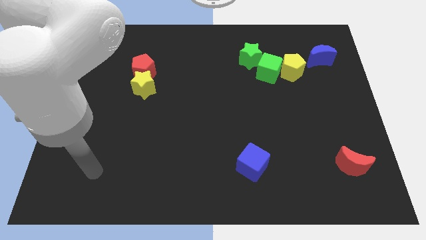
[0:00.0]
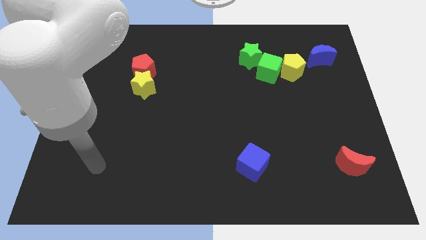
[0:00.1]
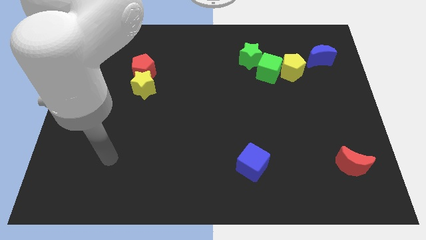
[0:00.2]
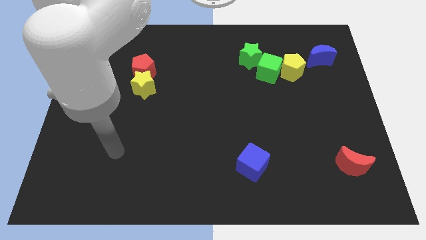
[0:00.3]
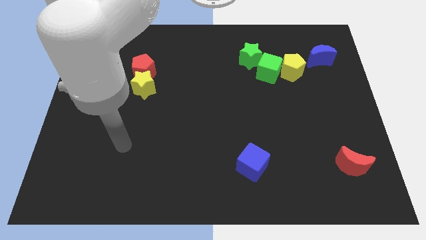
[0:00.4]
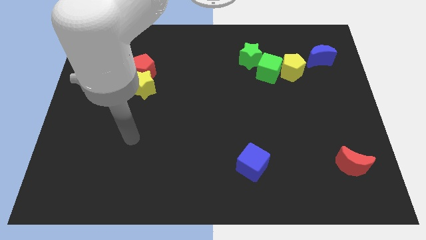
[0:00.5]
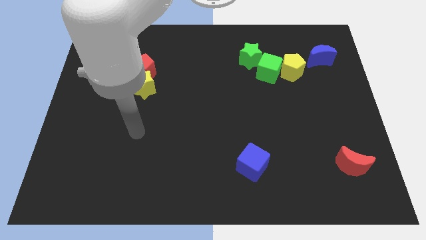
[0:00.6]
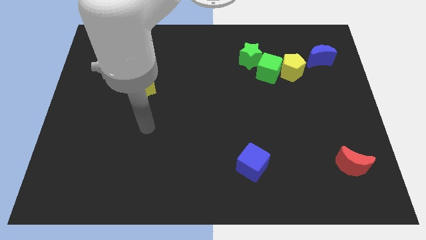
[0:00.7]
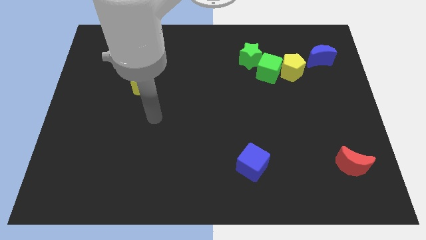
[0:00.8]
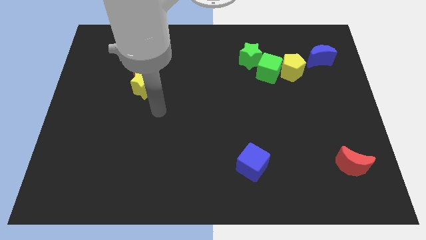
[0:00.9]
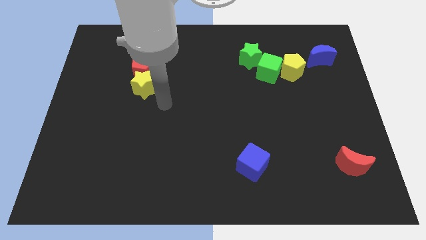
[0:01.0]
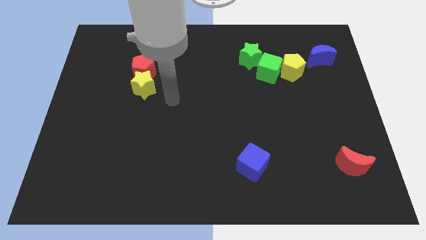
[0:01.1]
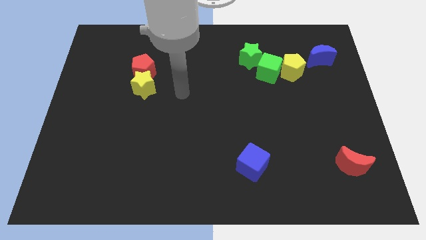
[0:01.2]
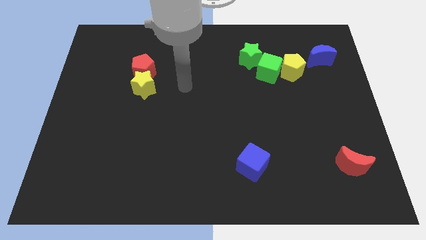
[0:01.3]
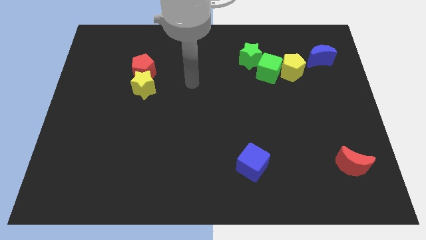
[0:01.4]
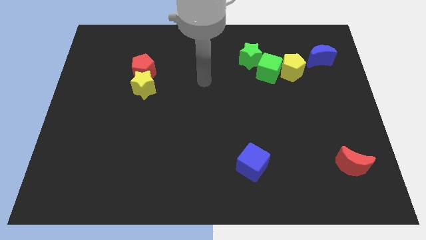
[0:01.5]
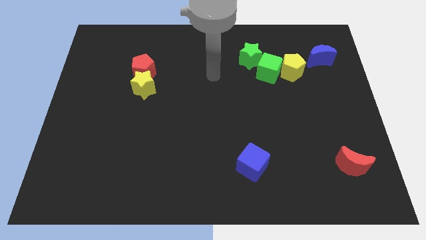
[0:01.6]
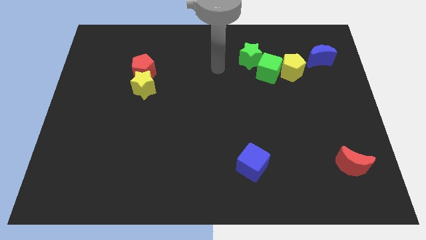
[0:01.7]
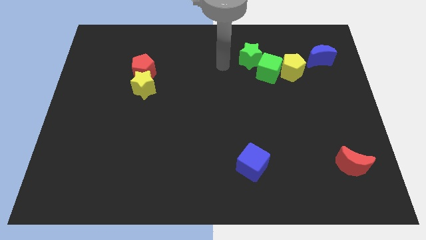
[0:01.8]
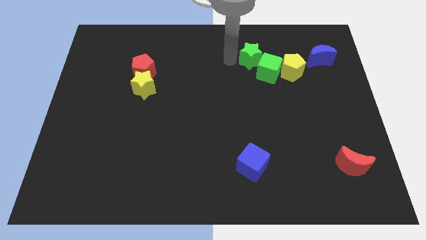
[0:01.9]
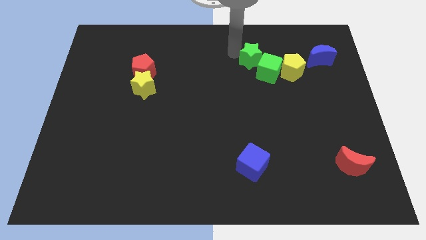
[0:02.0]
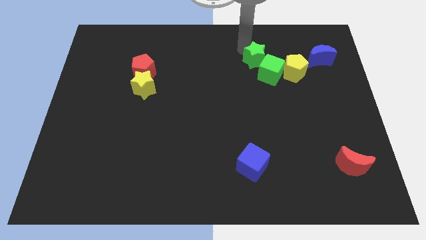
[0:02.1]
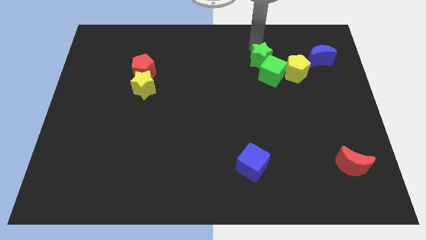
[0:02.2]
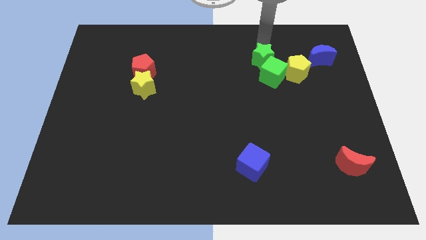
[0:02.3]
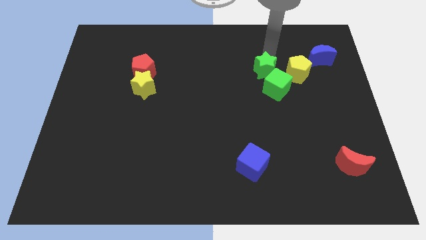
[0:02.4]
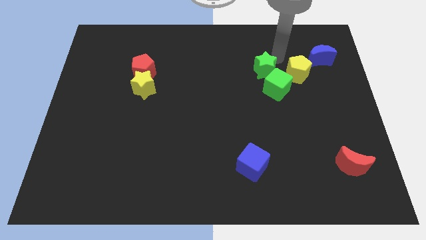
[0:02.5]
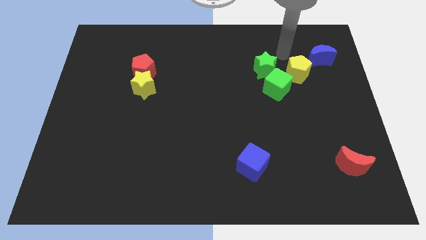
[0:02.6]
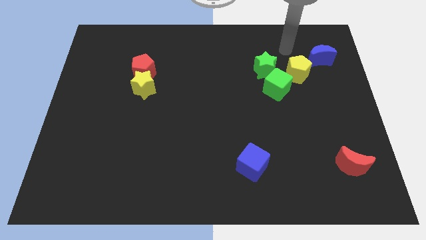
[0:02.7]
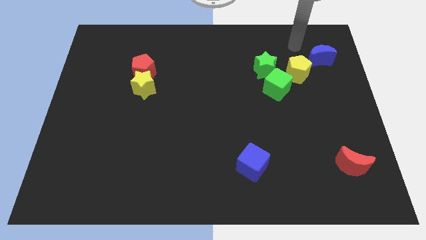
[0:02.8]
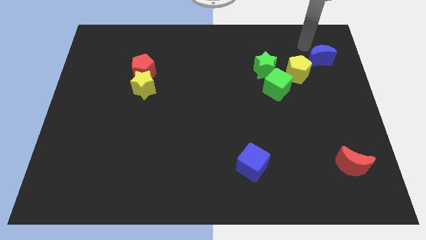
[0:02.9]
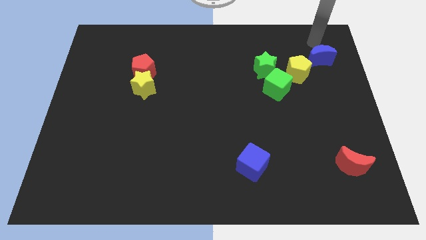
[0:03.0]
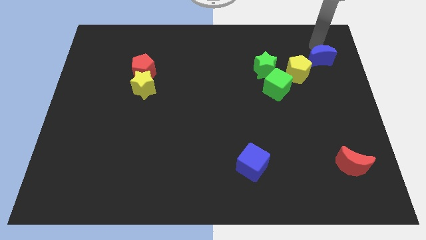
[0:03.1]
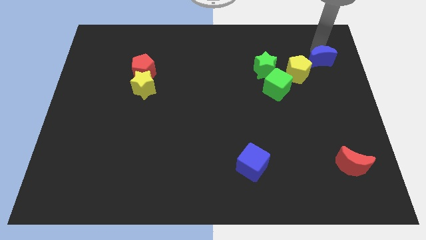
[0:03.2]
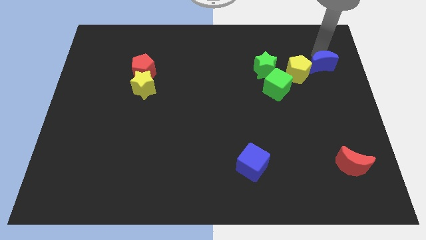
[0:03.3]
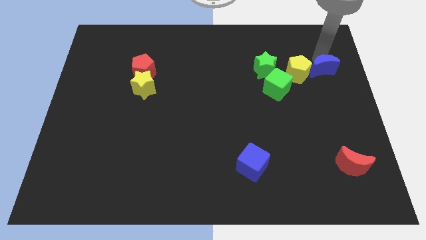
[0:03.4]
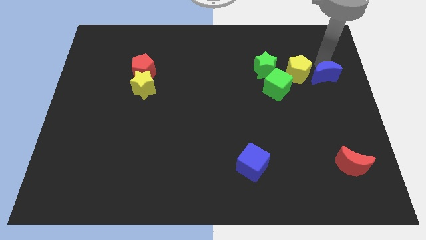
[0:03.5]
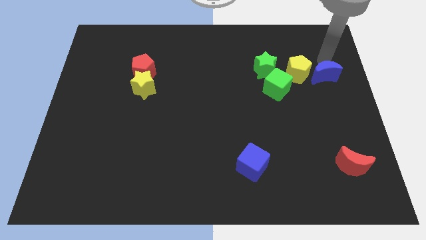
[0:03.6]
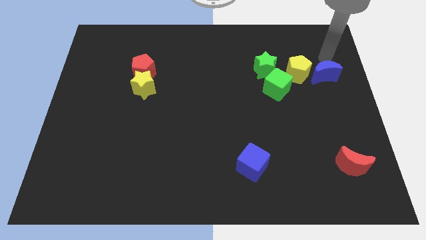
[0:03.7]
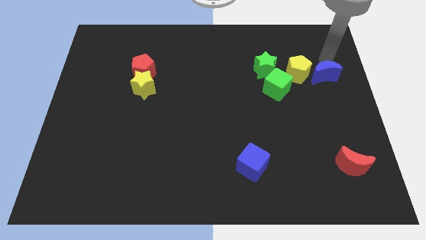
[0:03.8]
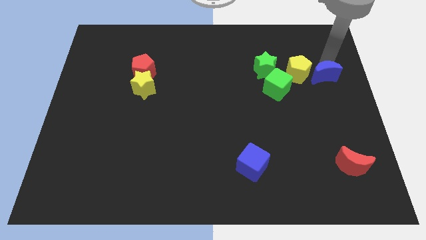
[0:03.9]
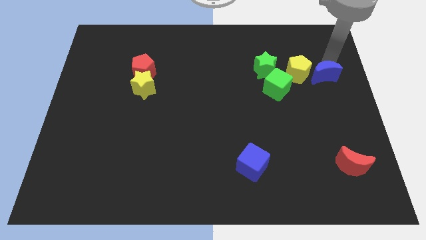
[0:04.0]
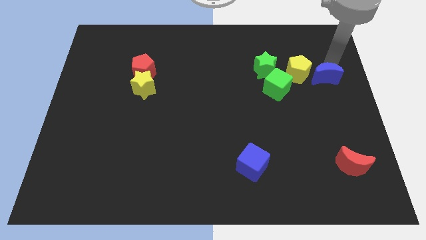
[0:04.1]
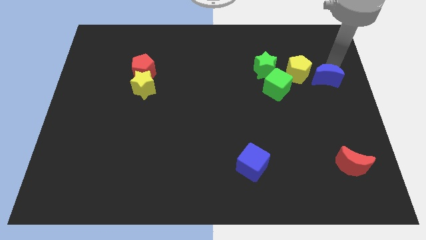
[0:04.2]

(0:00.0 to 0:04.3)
move the blue moon down a little bit

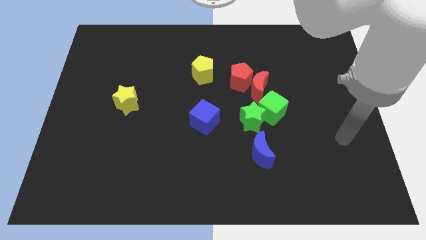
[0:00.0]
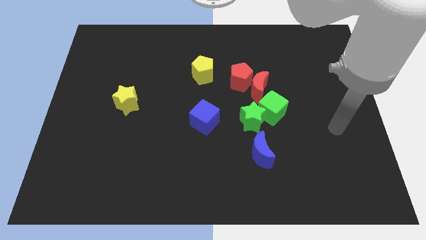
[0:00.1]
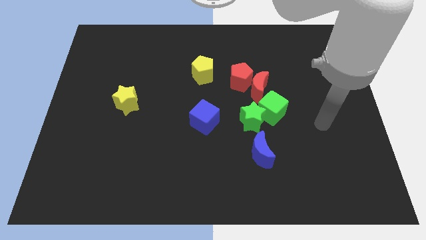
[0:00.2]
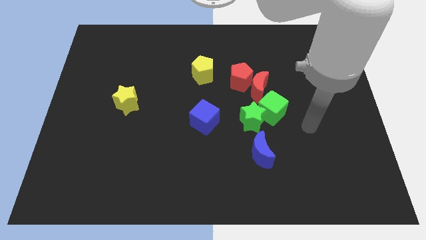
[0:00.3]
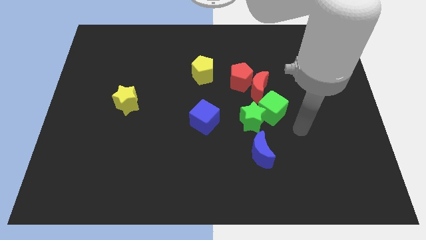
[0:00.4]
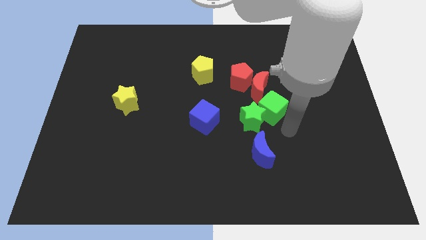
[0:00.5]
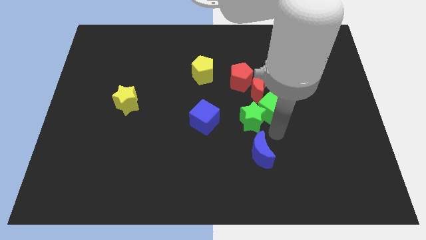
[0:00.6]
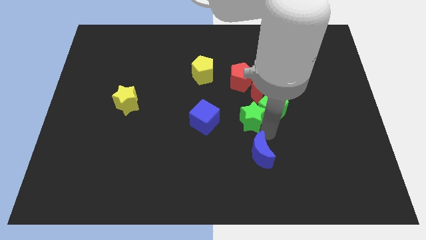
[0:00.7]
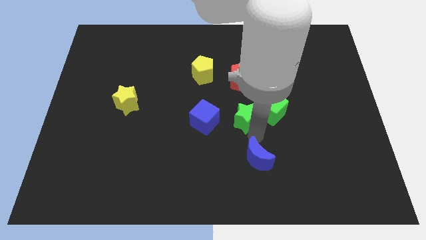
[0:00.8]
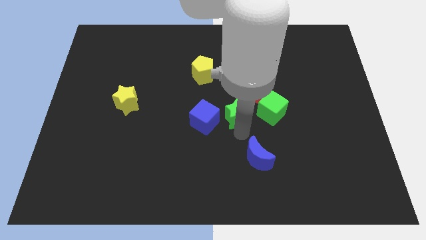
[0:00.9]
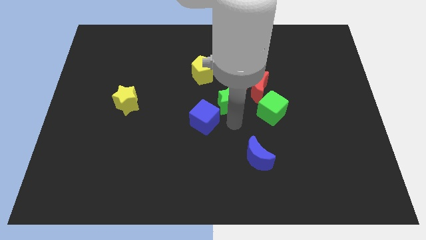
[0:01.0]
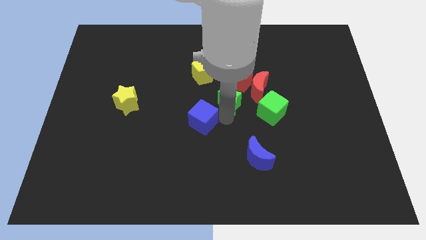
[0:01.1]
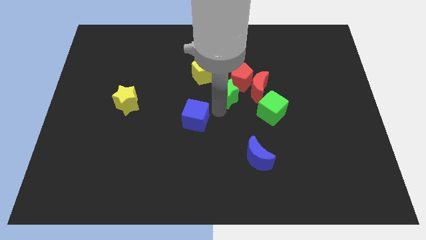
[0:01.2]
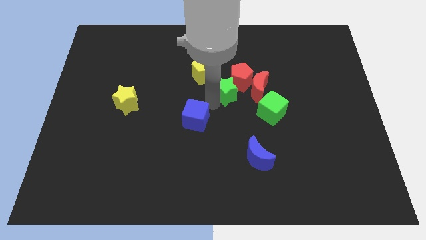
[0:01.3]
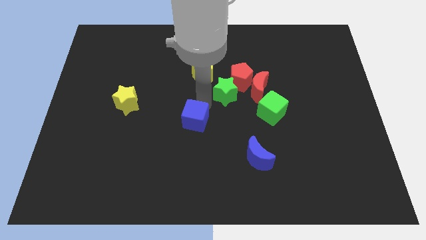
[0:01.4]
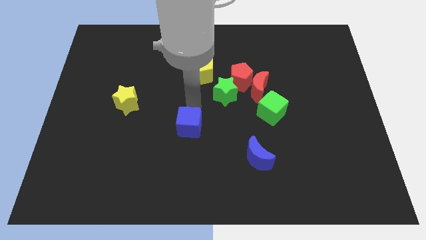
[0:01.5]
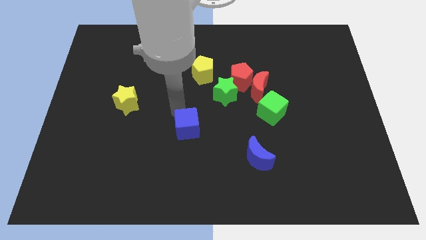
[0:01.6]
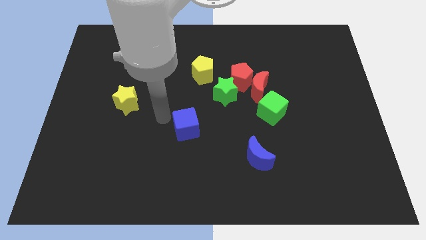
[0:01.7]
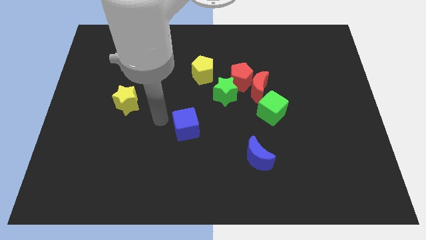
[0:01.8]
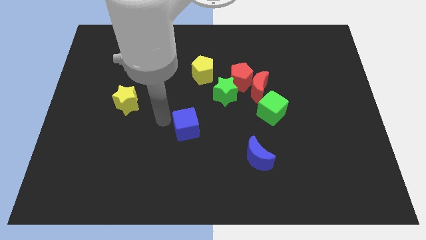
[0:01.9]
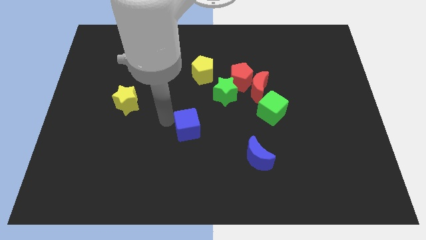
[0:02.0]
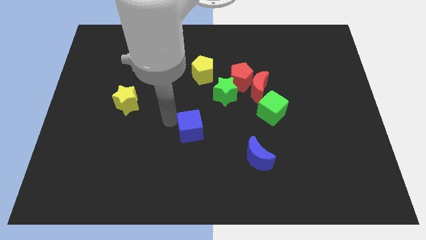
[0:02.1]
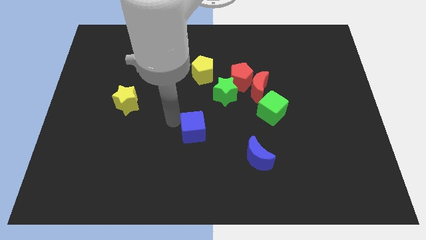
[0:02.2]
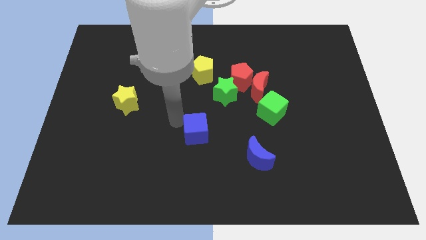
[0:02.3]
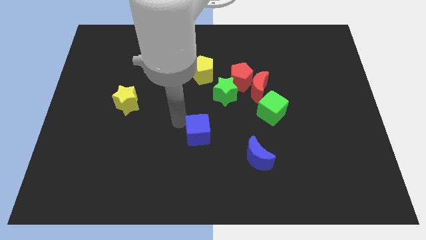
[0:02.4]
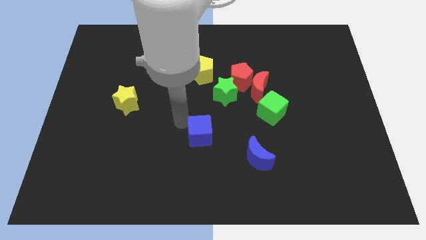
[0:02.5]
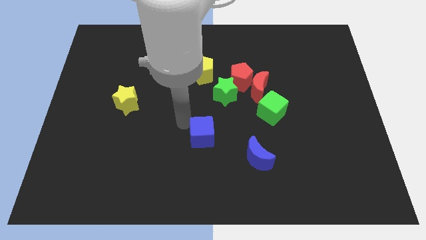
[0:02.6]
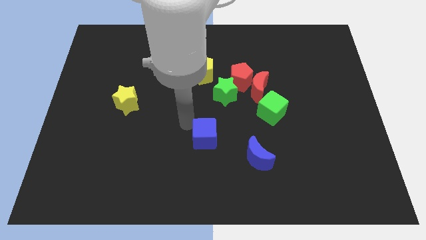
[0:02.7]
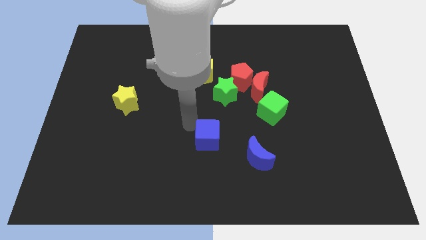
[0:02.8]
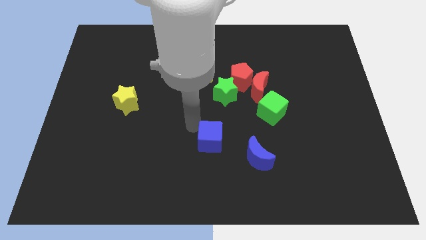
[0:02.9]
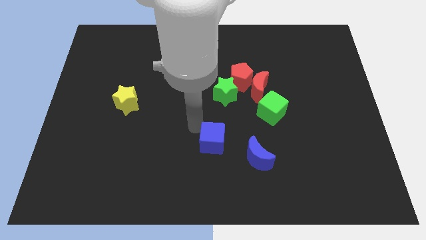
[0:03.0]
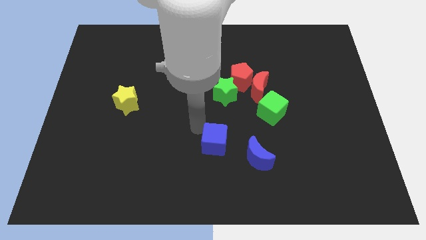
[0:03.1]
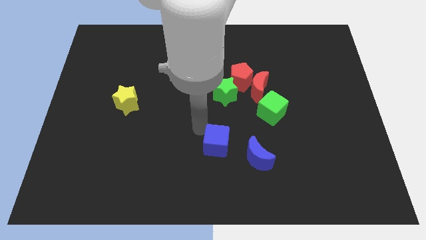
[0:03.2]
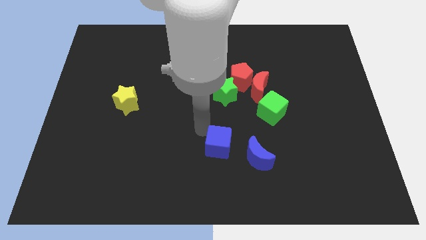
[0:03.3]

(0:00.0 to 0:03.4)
move the blue cube slightly diagonally downwards and to the right
